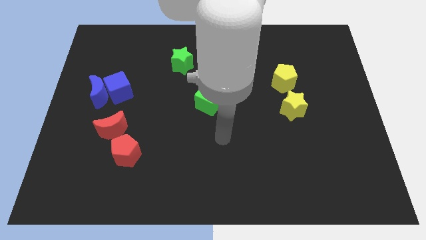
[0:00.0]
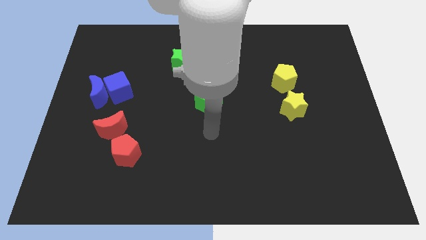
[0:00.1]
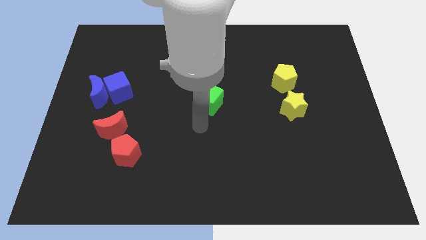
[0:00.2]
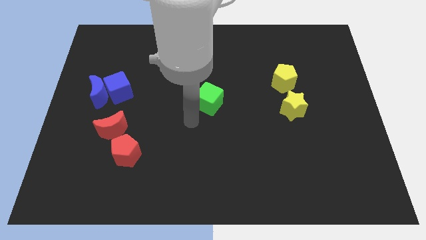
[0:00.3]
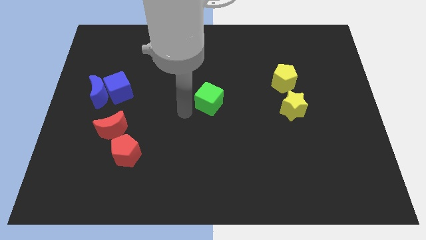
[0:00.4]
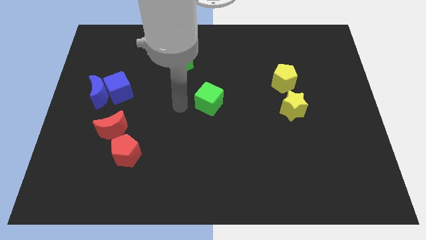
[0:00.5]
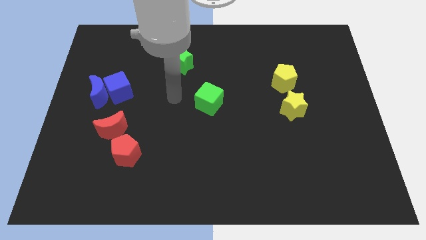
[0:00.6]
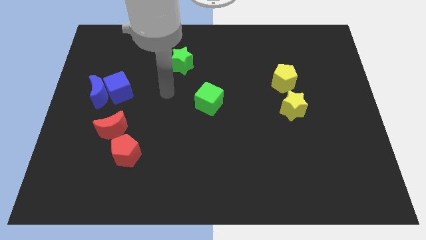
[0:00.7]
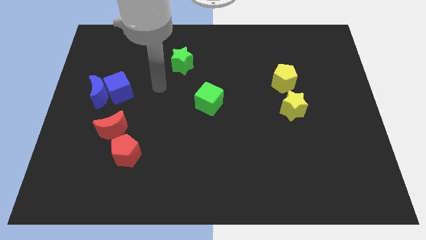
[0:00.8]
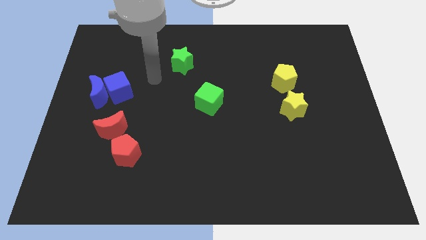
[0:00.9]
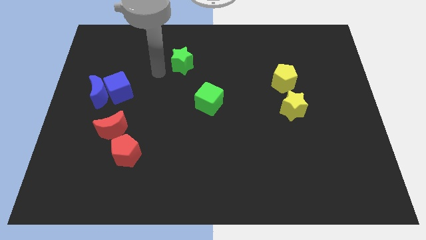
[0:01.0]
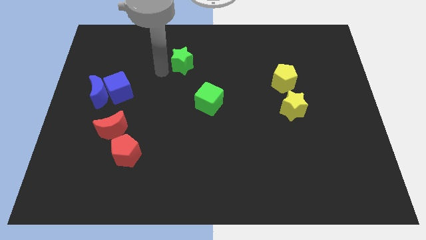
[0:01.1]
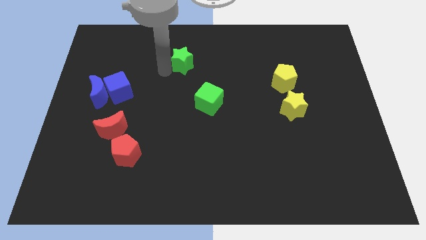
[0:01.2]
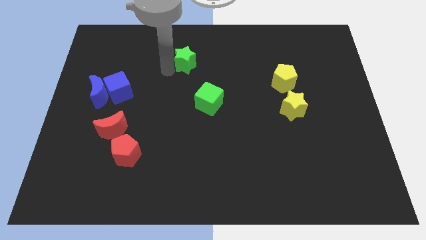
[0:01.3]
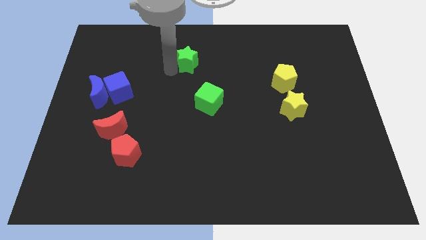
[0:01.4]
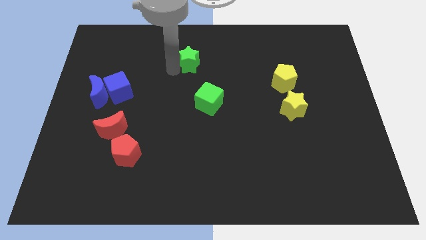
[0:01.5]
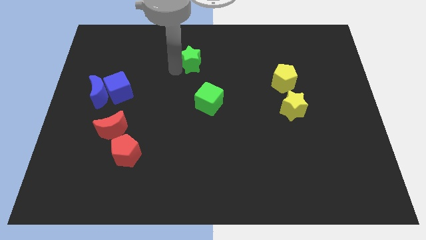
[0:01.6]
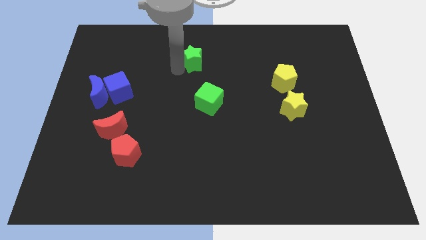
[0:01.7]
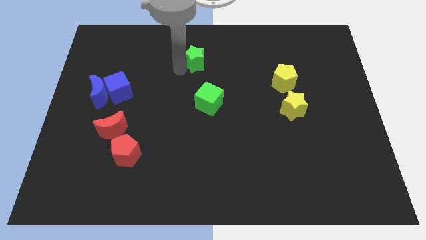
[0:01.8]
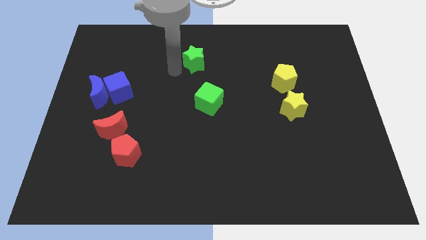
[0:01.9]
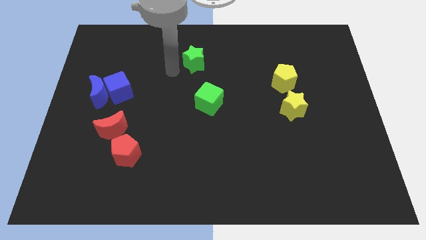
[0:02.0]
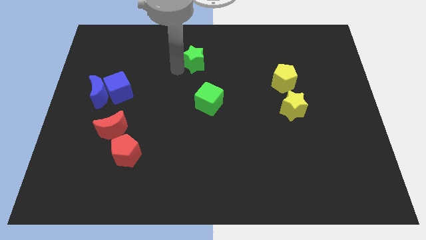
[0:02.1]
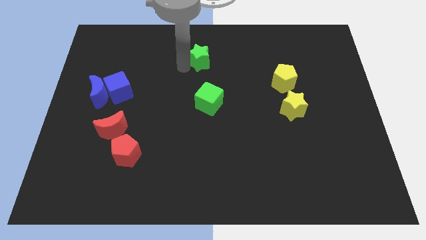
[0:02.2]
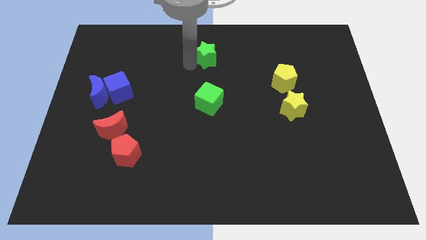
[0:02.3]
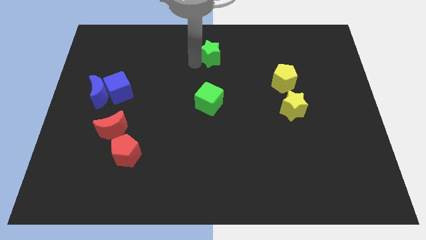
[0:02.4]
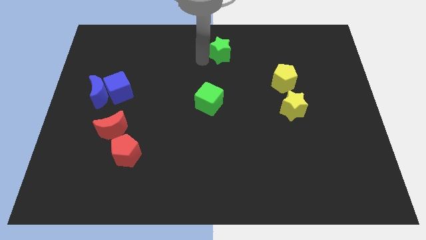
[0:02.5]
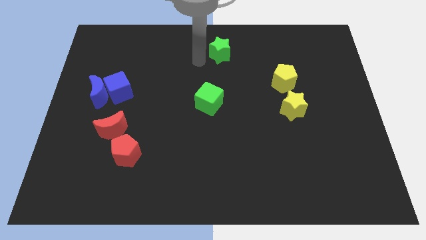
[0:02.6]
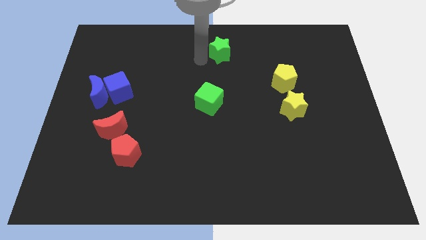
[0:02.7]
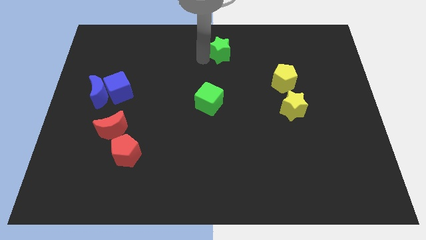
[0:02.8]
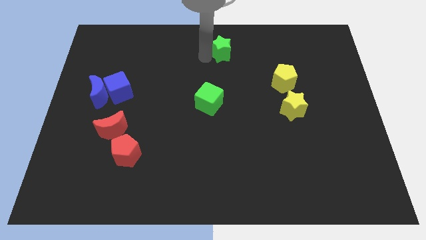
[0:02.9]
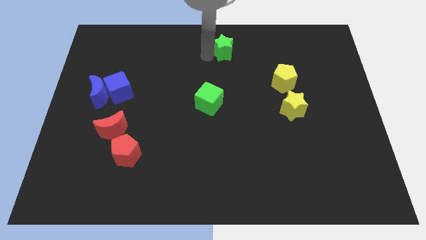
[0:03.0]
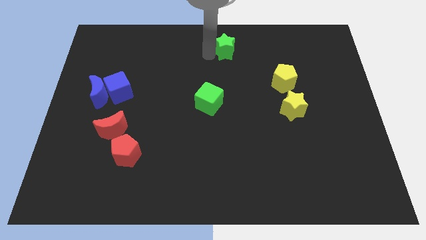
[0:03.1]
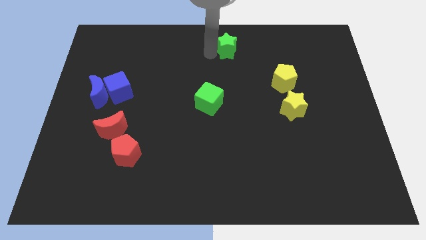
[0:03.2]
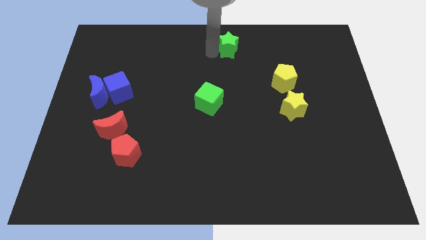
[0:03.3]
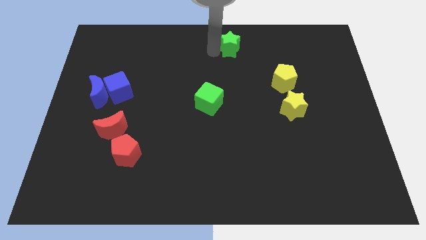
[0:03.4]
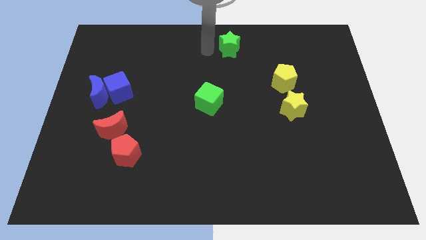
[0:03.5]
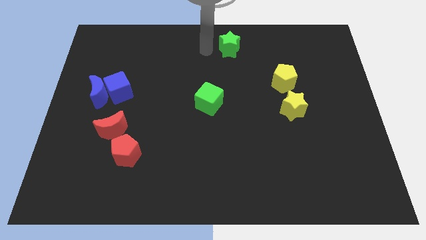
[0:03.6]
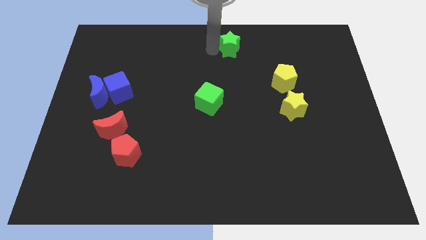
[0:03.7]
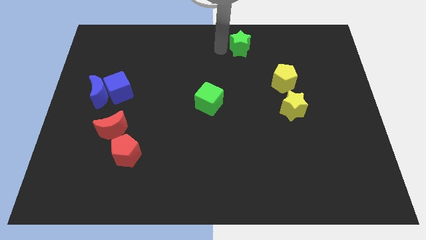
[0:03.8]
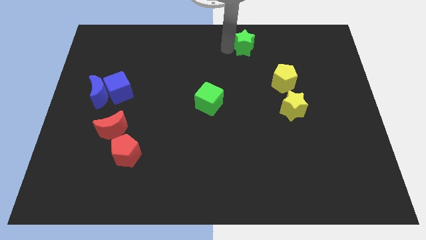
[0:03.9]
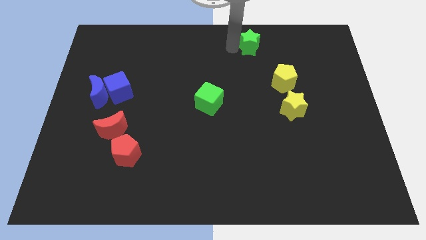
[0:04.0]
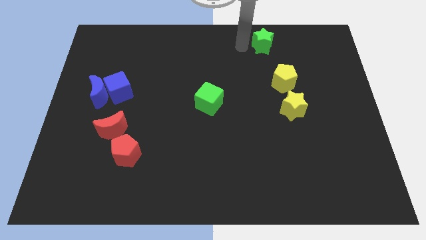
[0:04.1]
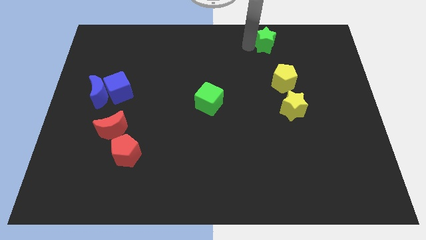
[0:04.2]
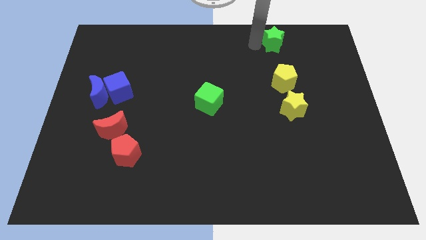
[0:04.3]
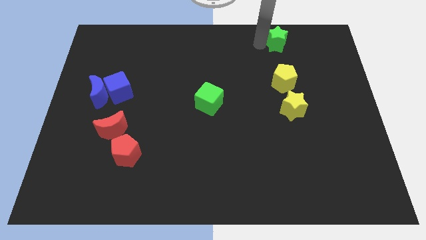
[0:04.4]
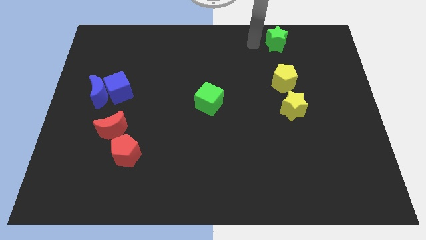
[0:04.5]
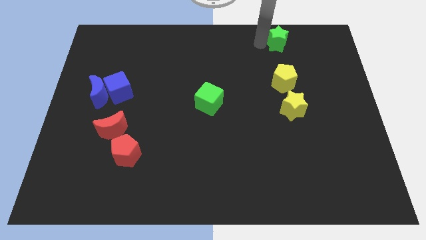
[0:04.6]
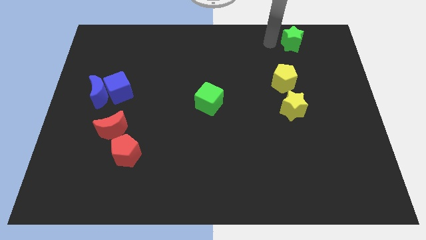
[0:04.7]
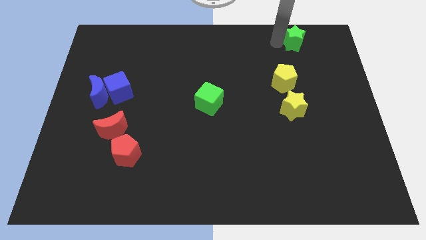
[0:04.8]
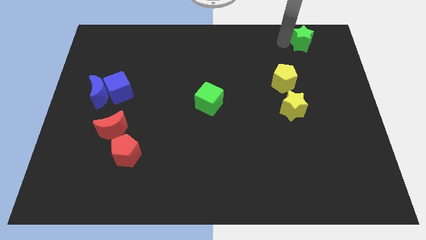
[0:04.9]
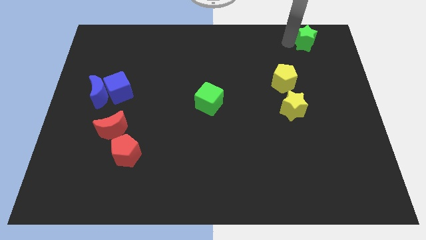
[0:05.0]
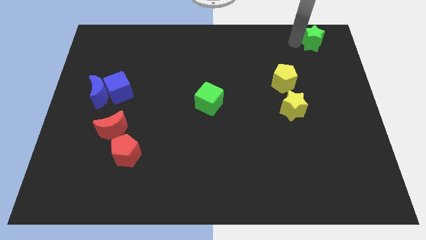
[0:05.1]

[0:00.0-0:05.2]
put the green star to the top right of the board

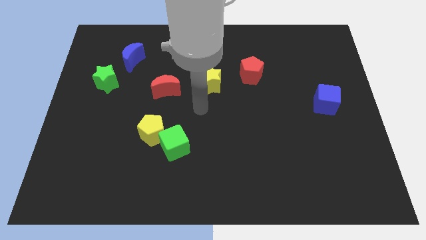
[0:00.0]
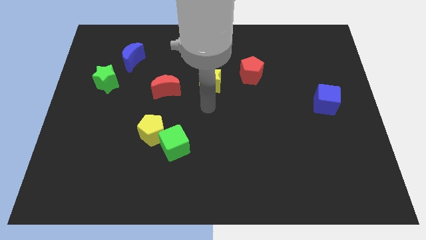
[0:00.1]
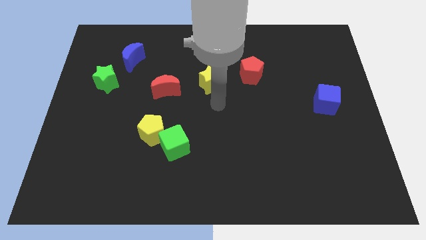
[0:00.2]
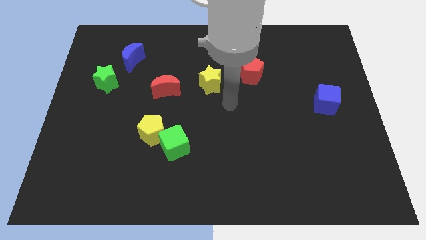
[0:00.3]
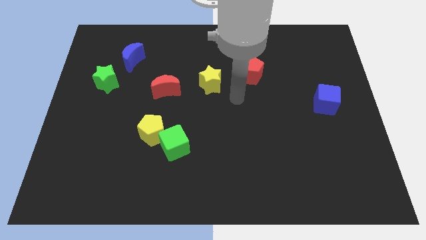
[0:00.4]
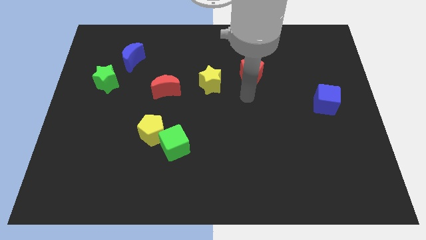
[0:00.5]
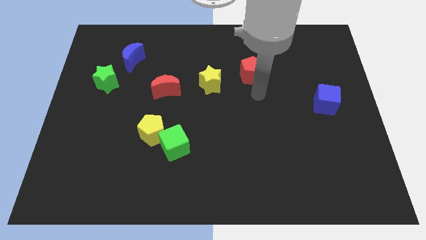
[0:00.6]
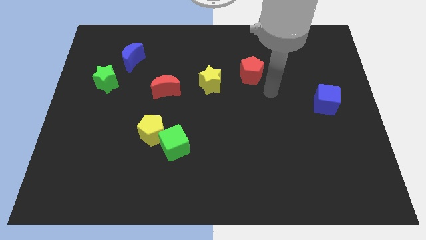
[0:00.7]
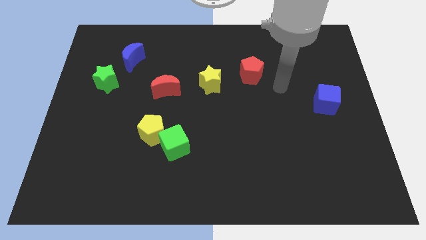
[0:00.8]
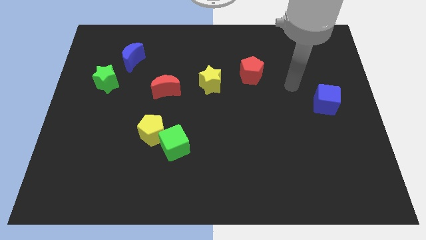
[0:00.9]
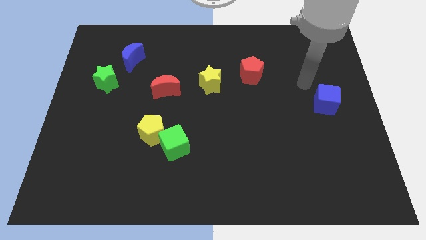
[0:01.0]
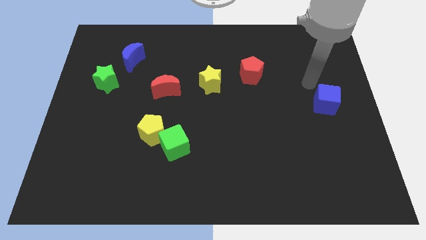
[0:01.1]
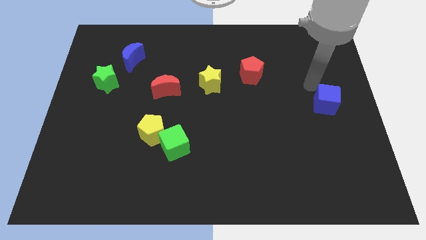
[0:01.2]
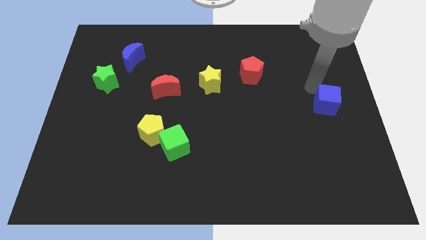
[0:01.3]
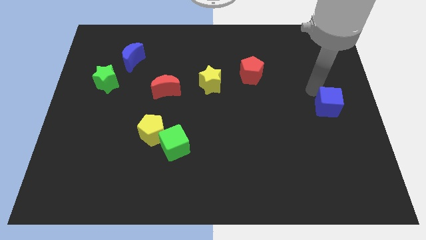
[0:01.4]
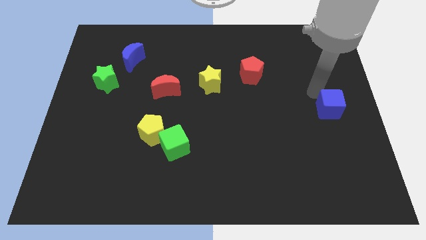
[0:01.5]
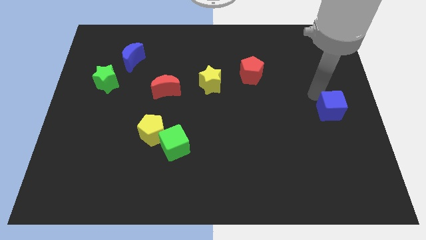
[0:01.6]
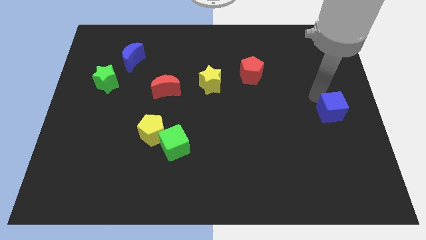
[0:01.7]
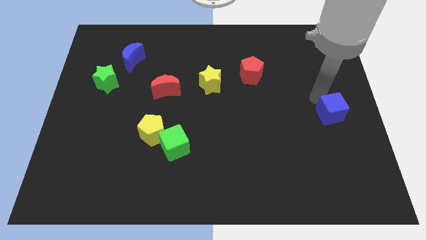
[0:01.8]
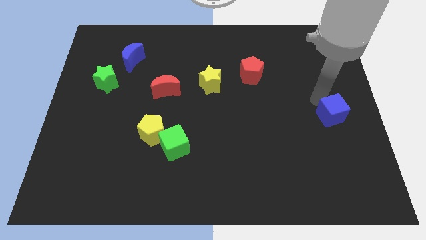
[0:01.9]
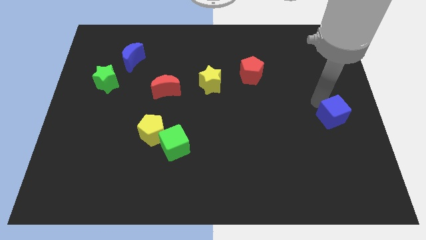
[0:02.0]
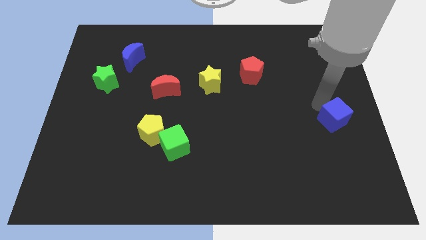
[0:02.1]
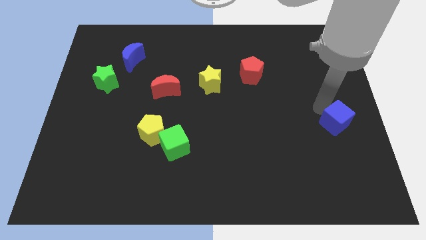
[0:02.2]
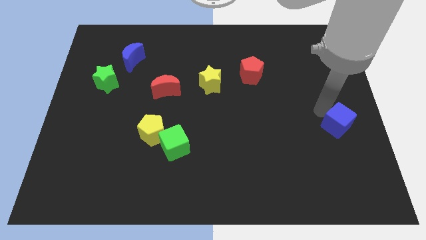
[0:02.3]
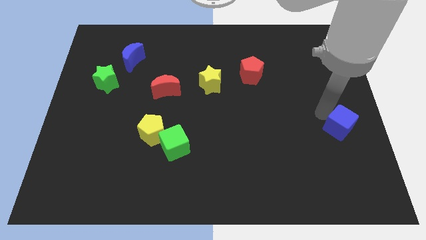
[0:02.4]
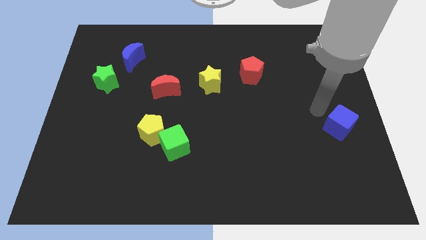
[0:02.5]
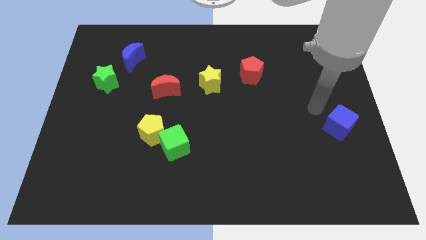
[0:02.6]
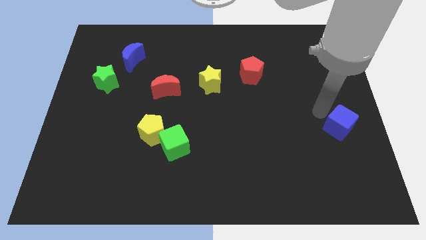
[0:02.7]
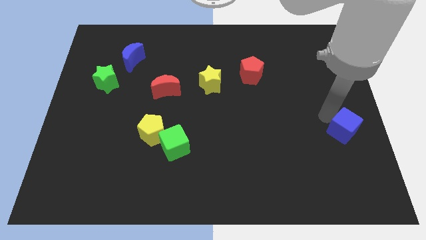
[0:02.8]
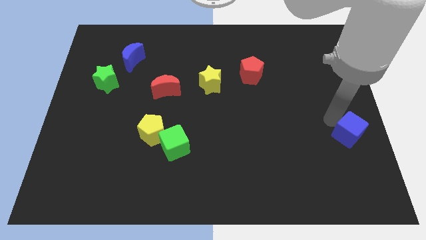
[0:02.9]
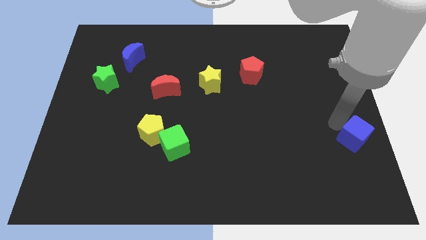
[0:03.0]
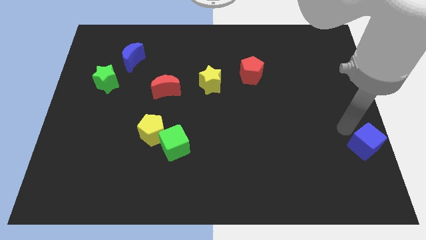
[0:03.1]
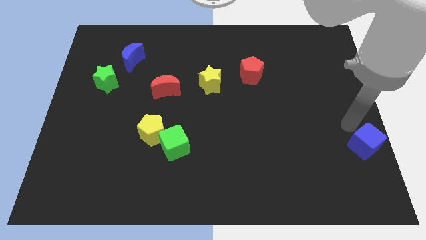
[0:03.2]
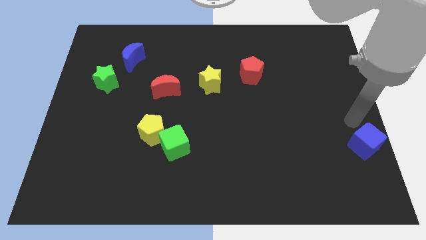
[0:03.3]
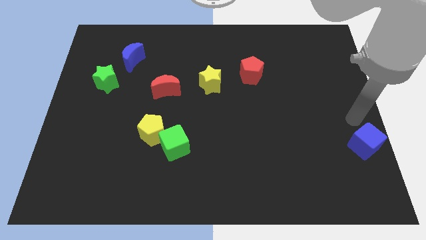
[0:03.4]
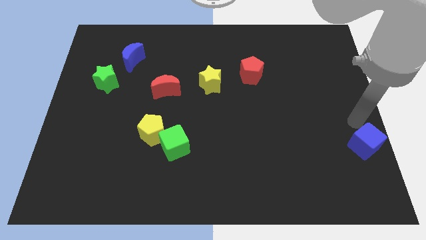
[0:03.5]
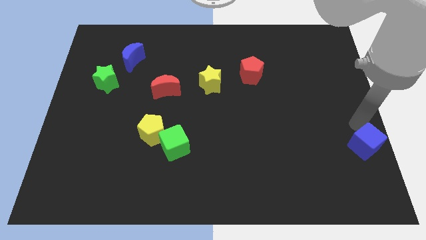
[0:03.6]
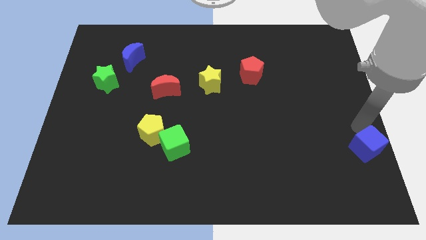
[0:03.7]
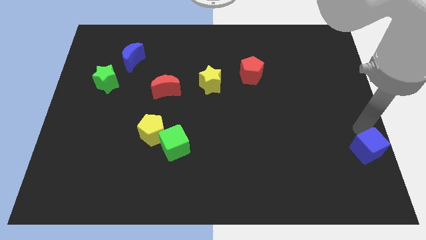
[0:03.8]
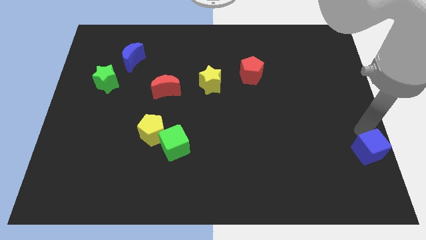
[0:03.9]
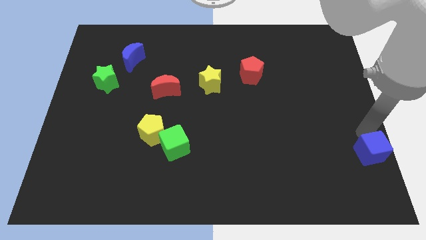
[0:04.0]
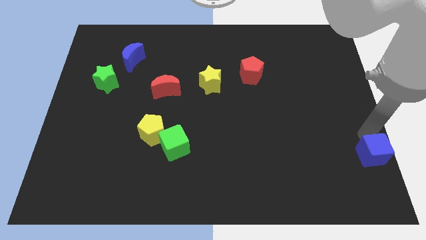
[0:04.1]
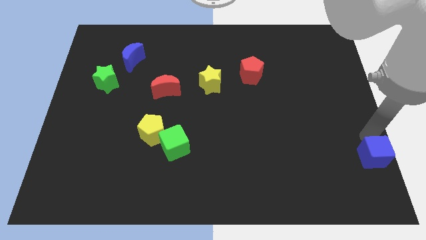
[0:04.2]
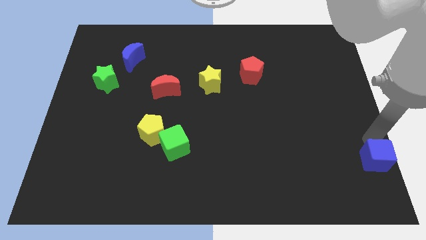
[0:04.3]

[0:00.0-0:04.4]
slide the blue cube to the lower right corner
